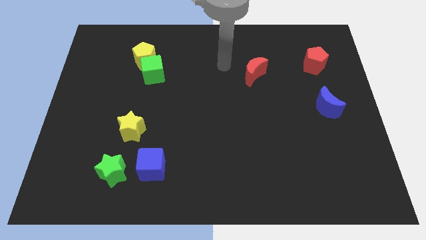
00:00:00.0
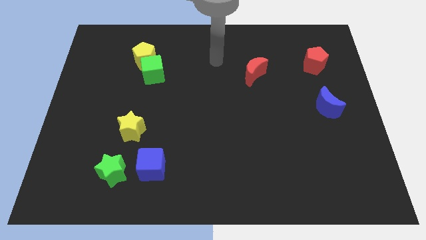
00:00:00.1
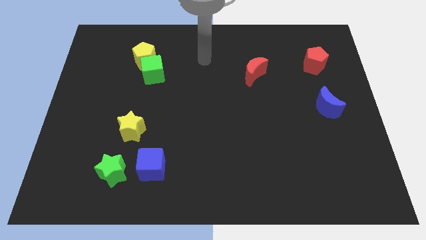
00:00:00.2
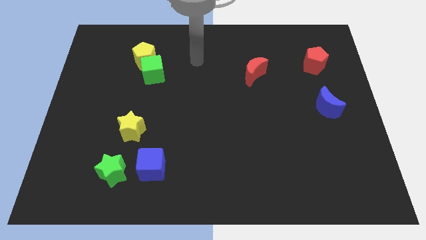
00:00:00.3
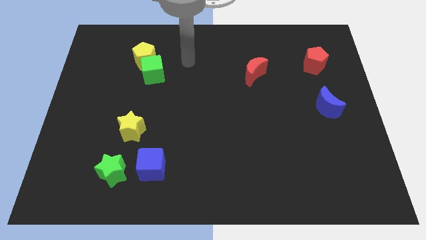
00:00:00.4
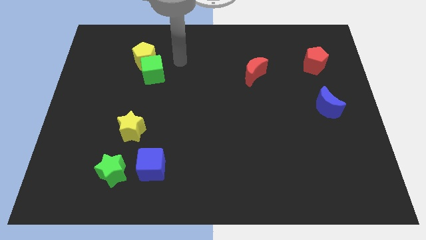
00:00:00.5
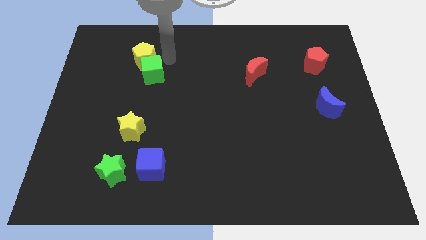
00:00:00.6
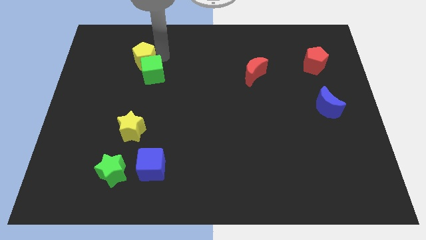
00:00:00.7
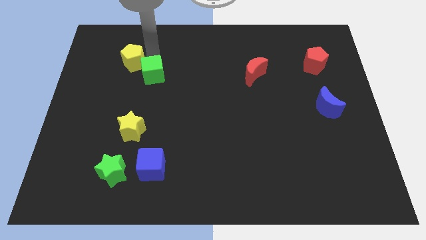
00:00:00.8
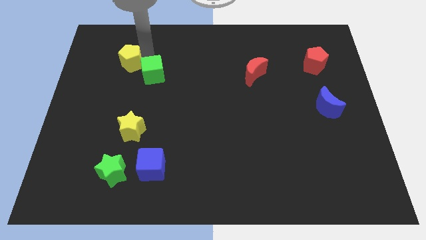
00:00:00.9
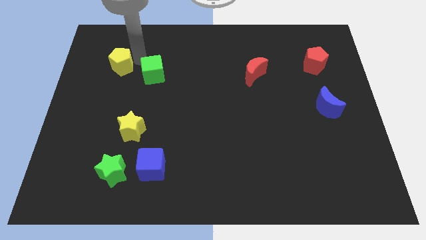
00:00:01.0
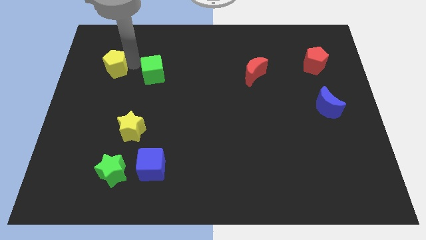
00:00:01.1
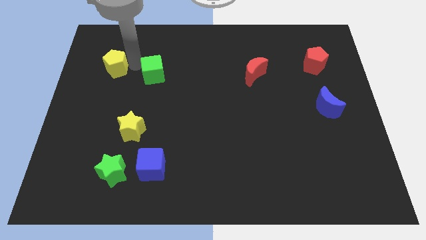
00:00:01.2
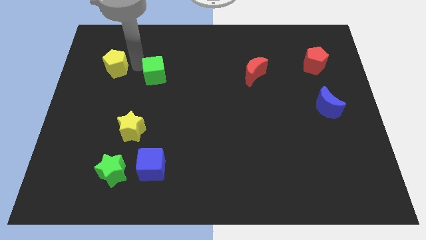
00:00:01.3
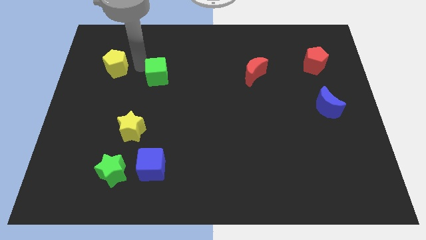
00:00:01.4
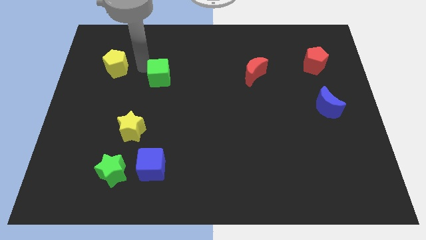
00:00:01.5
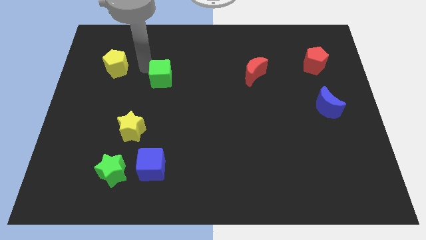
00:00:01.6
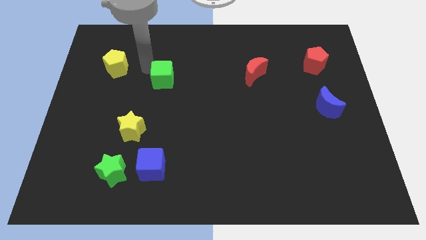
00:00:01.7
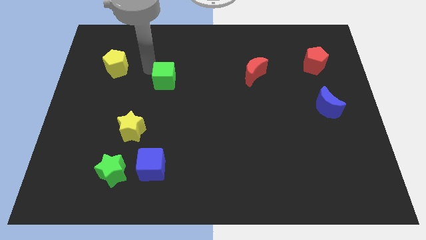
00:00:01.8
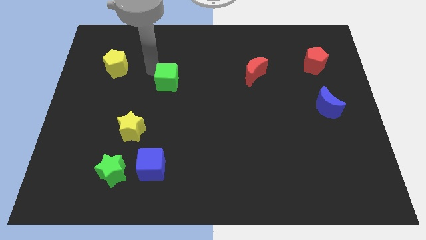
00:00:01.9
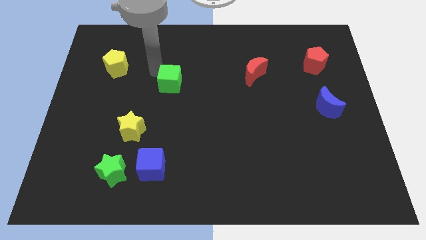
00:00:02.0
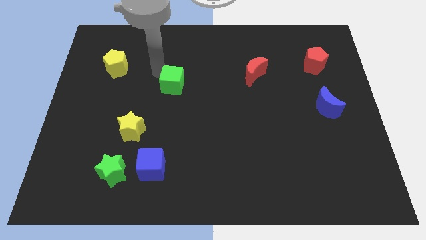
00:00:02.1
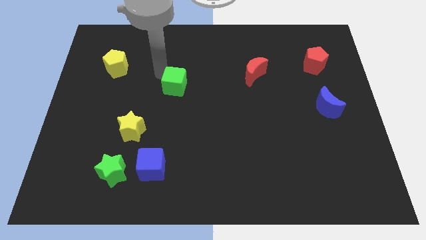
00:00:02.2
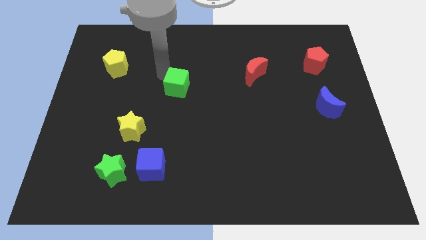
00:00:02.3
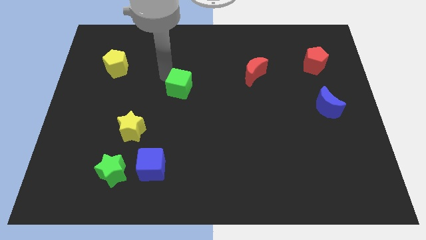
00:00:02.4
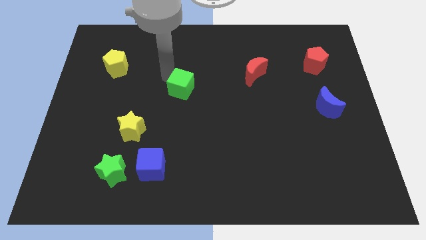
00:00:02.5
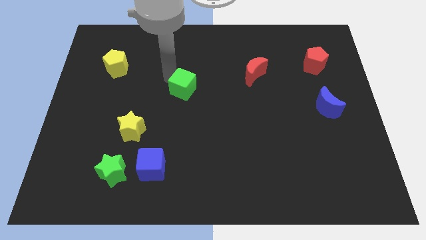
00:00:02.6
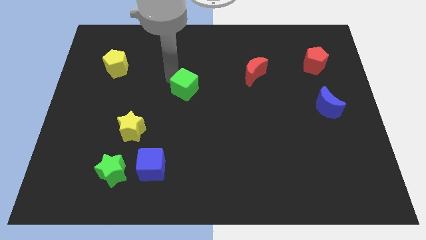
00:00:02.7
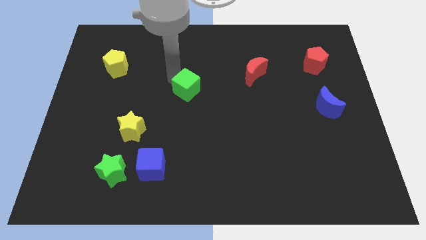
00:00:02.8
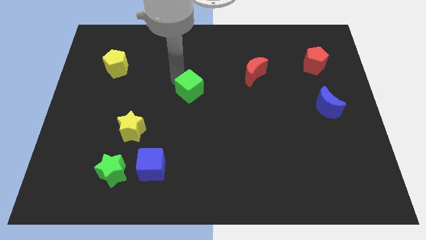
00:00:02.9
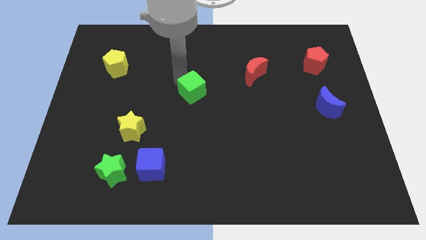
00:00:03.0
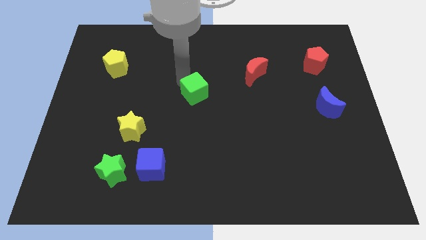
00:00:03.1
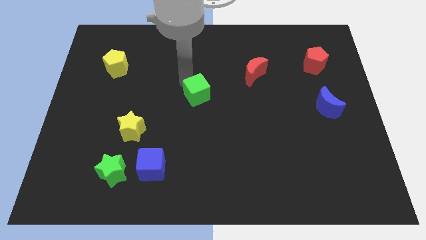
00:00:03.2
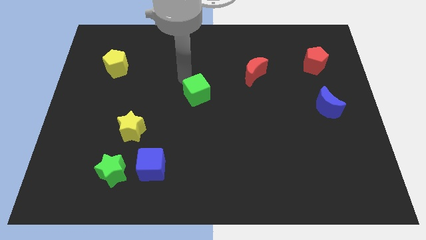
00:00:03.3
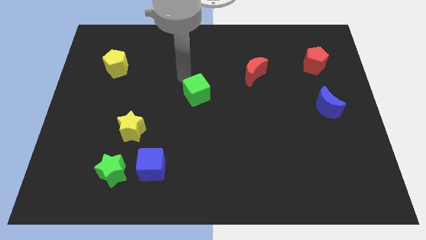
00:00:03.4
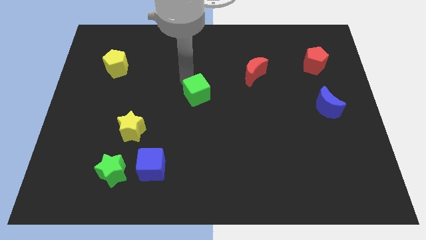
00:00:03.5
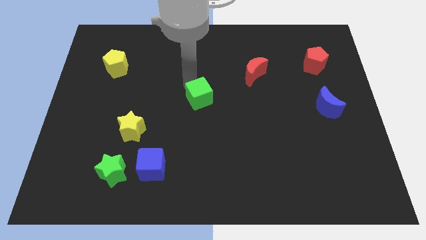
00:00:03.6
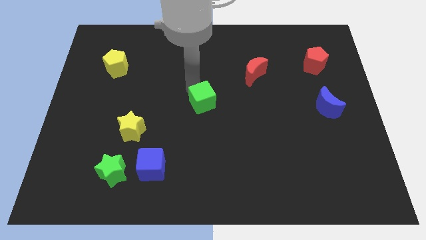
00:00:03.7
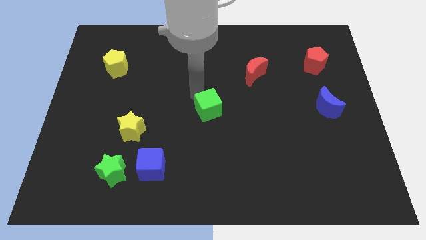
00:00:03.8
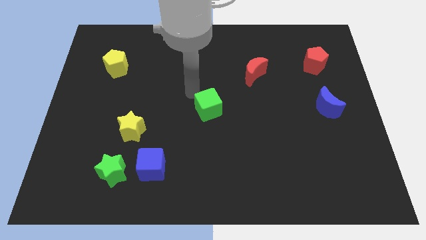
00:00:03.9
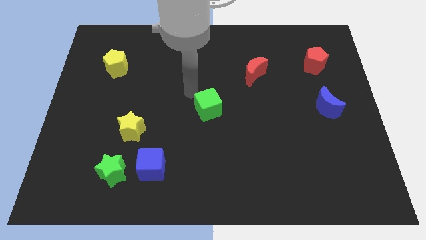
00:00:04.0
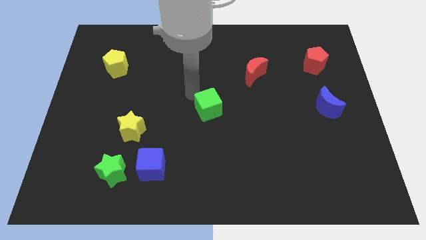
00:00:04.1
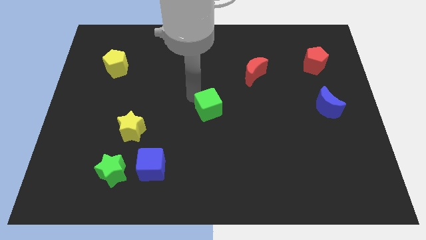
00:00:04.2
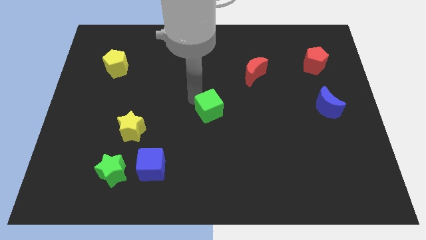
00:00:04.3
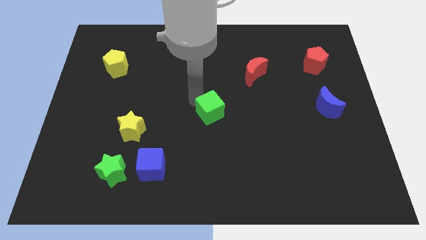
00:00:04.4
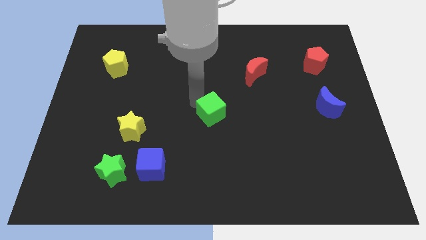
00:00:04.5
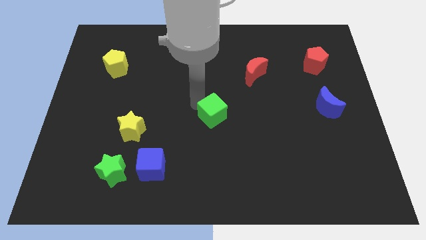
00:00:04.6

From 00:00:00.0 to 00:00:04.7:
slide the green cube down and then to the right

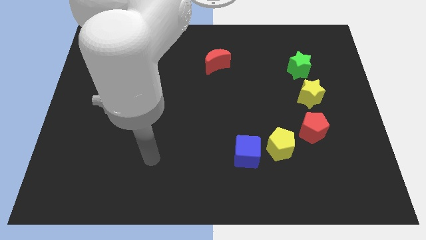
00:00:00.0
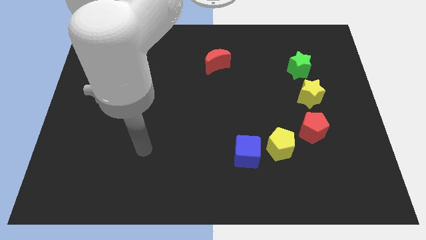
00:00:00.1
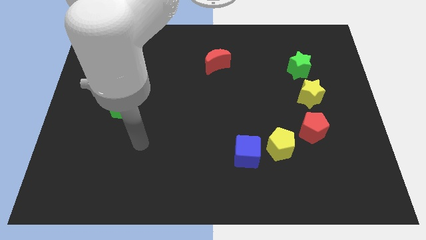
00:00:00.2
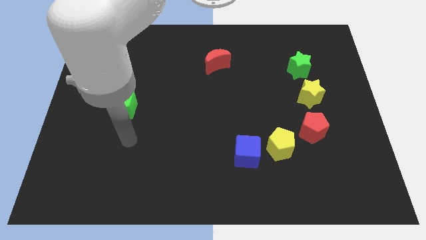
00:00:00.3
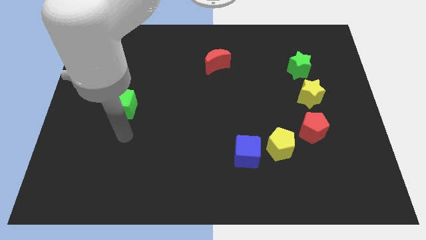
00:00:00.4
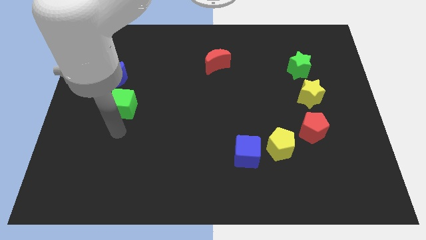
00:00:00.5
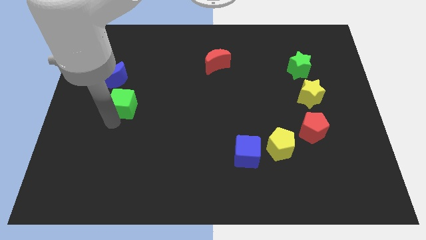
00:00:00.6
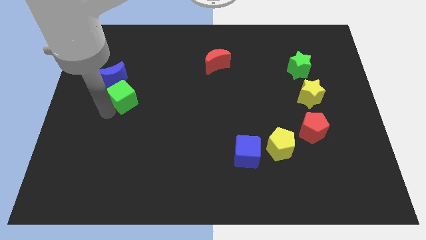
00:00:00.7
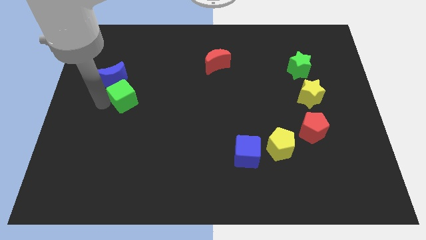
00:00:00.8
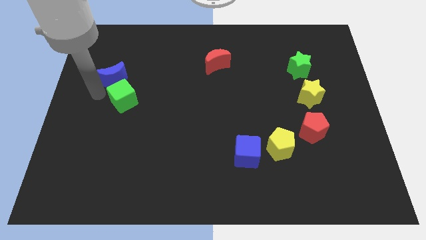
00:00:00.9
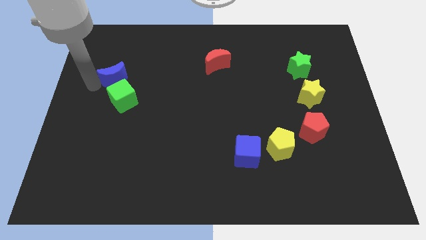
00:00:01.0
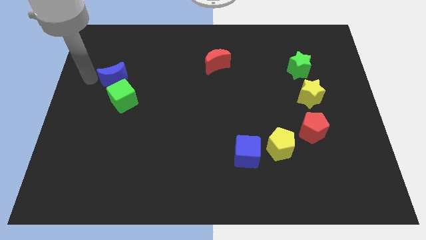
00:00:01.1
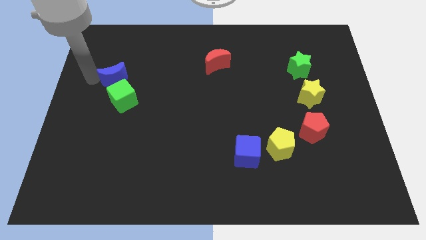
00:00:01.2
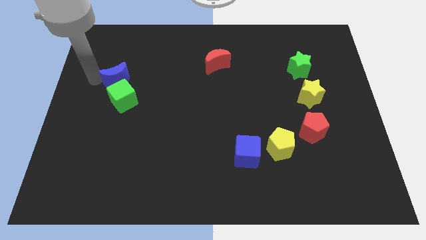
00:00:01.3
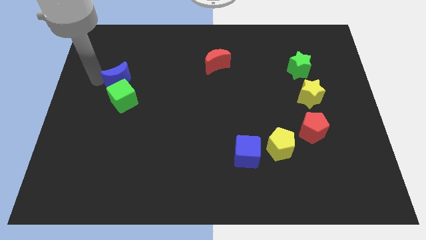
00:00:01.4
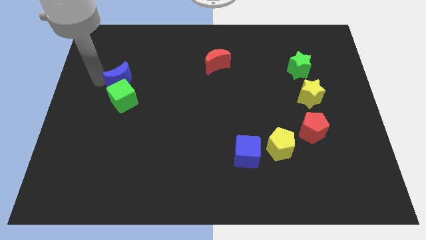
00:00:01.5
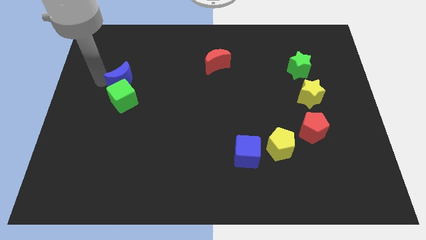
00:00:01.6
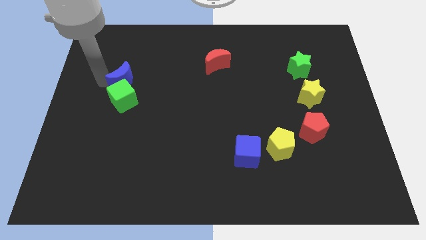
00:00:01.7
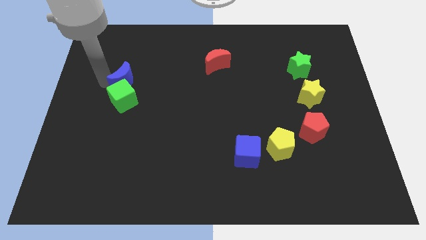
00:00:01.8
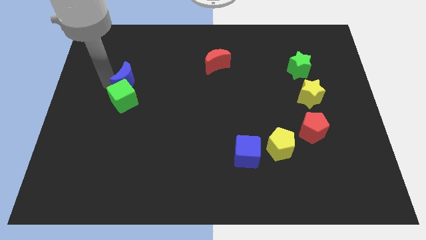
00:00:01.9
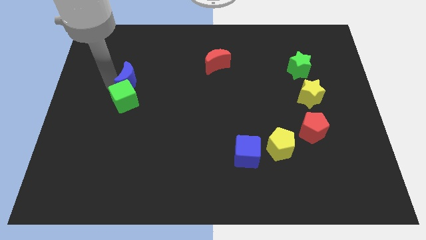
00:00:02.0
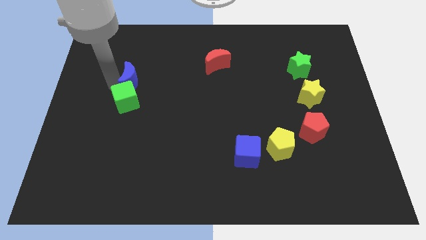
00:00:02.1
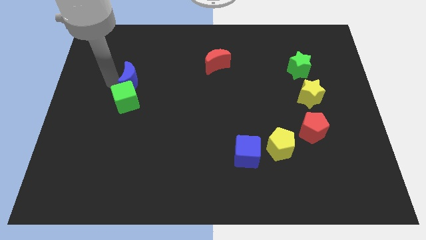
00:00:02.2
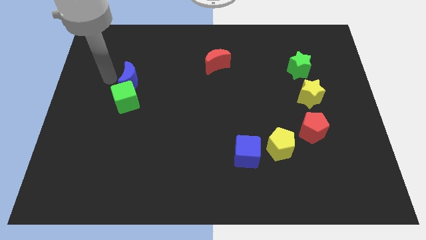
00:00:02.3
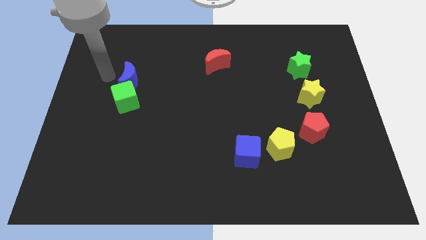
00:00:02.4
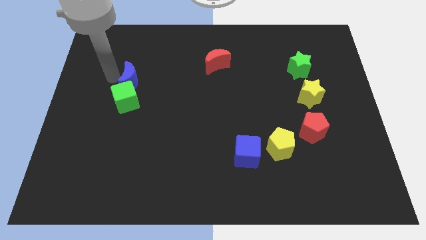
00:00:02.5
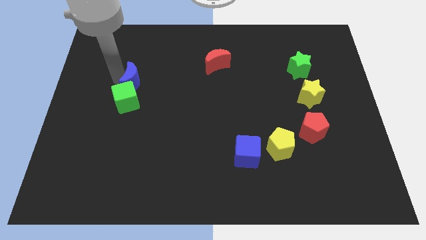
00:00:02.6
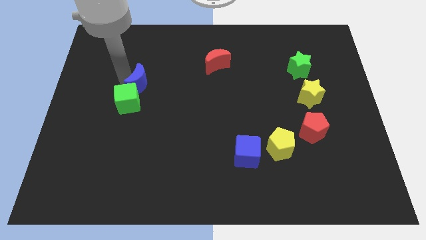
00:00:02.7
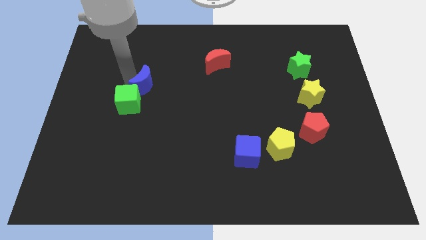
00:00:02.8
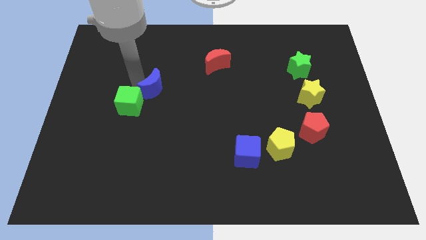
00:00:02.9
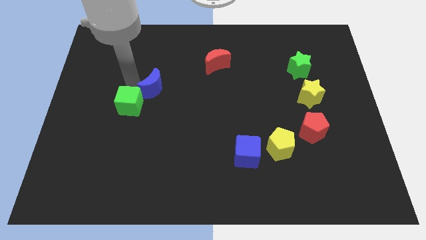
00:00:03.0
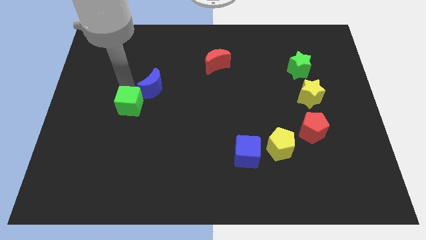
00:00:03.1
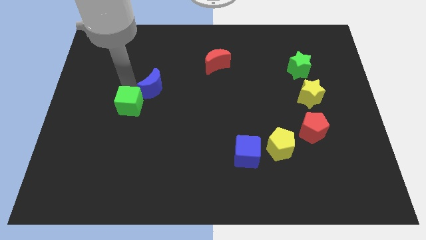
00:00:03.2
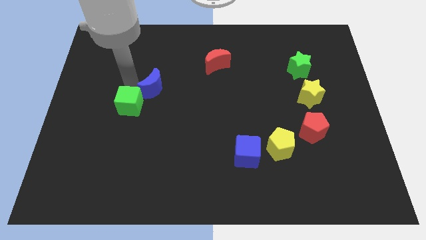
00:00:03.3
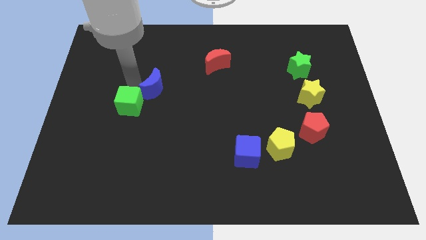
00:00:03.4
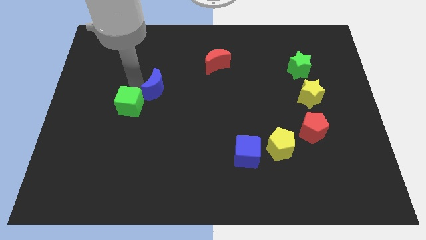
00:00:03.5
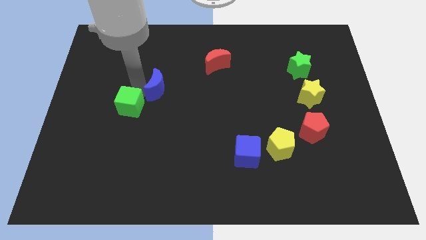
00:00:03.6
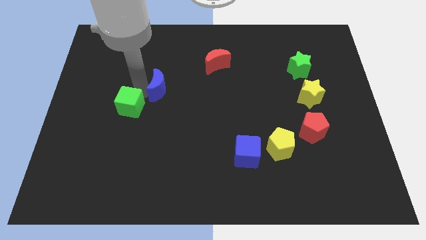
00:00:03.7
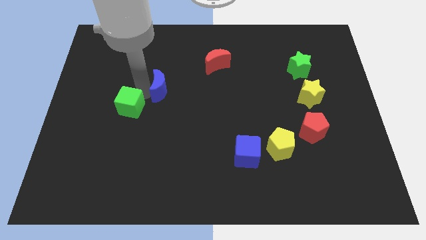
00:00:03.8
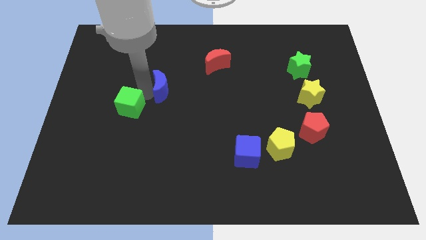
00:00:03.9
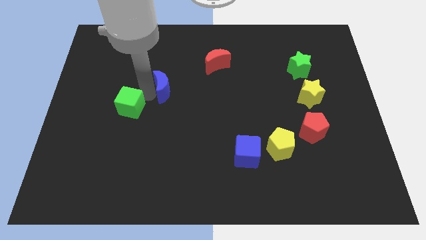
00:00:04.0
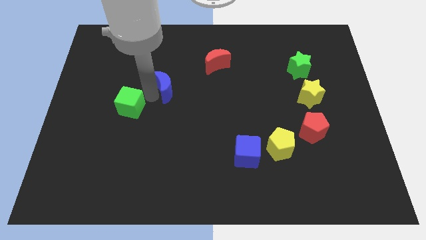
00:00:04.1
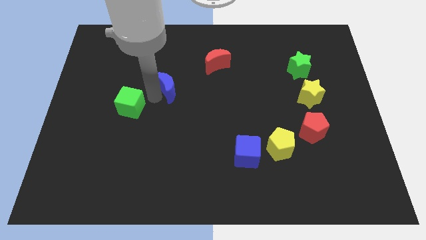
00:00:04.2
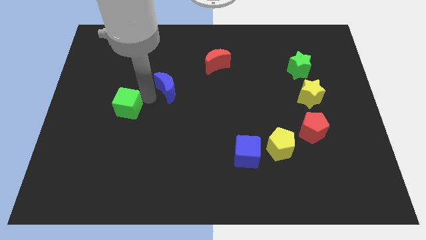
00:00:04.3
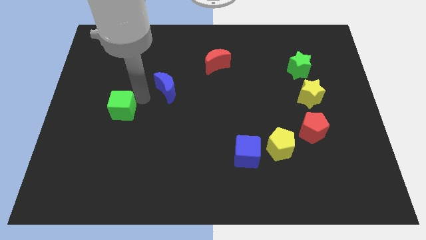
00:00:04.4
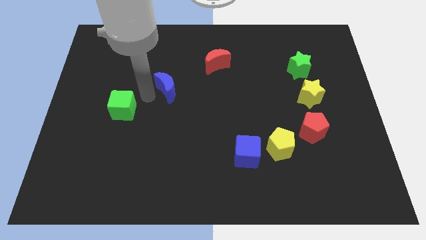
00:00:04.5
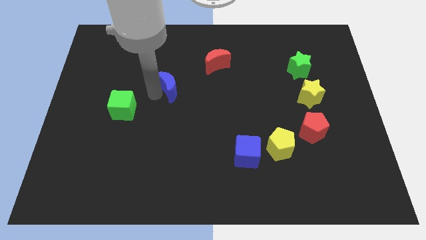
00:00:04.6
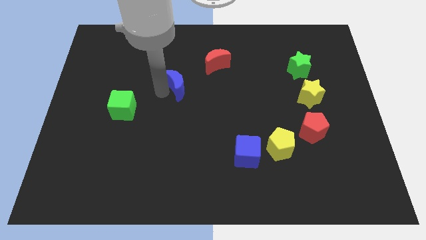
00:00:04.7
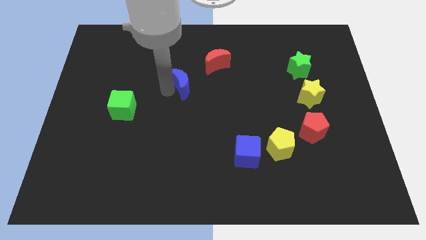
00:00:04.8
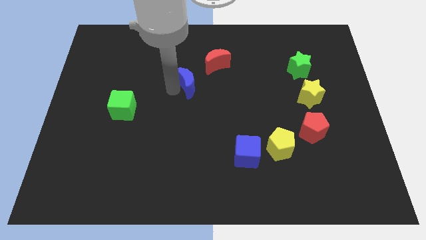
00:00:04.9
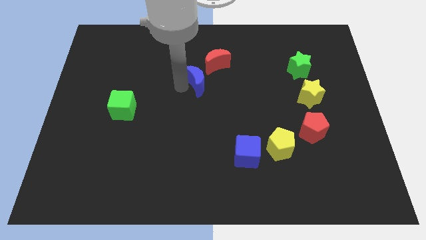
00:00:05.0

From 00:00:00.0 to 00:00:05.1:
push the blue moon right
